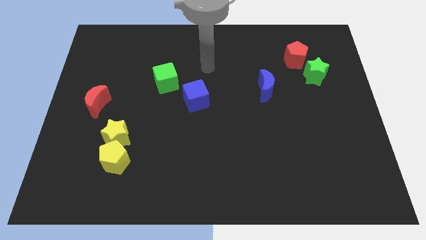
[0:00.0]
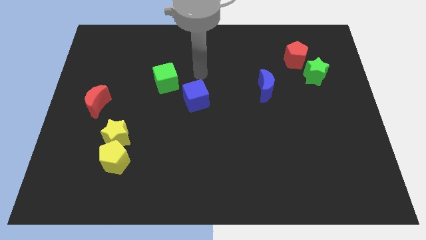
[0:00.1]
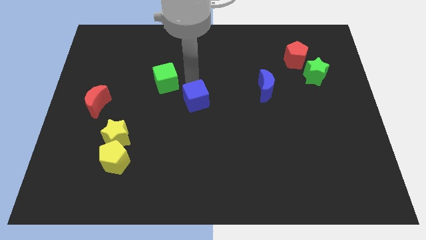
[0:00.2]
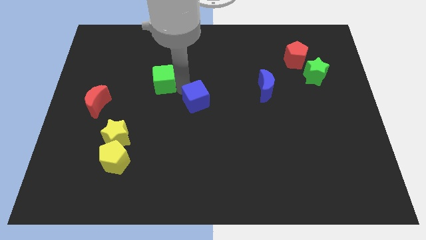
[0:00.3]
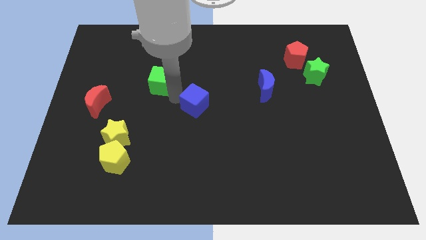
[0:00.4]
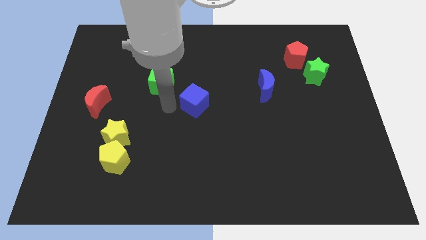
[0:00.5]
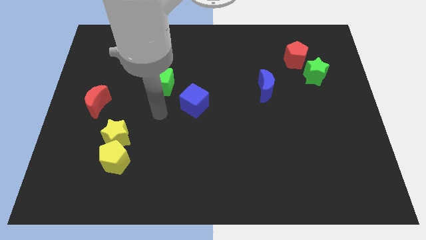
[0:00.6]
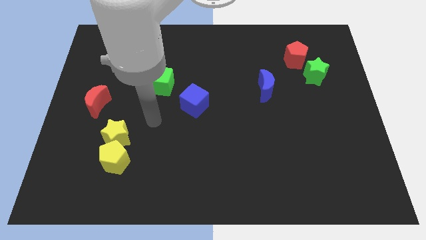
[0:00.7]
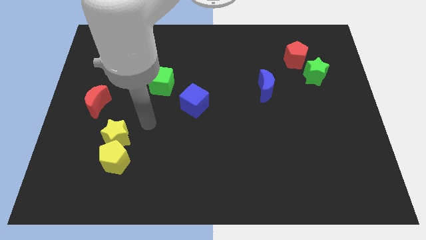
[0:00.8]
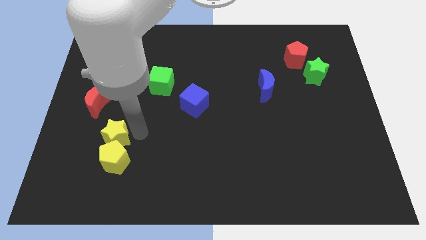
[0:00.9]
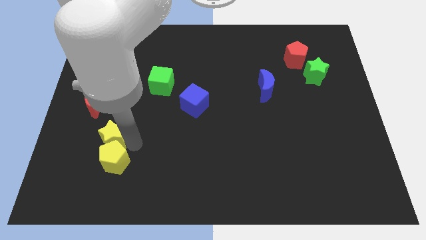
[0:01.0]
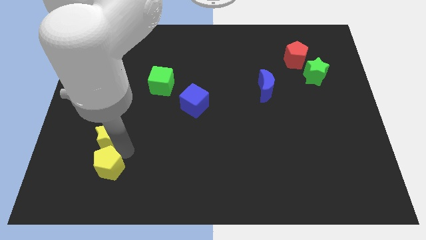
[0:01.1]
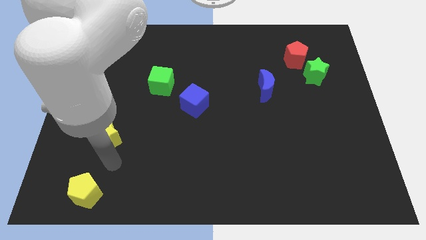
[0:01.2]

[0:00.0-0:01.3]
separate the yellow star from the yellow pentagon

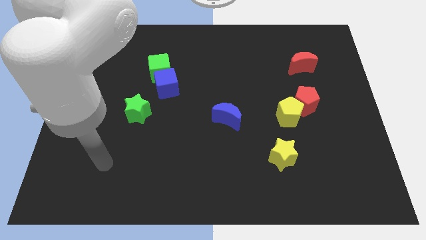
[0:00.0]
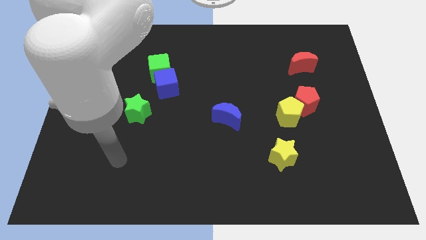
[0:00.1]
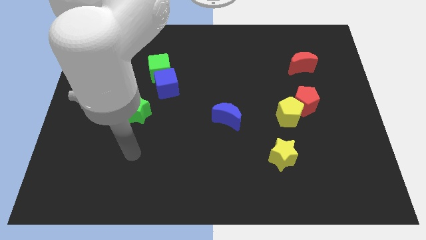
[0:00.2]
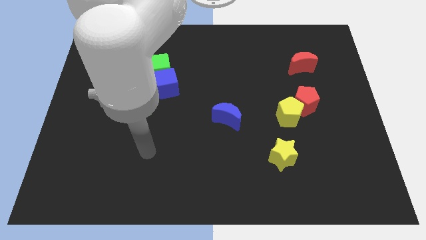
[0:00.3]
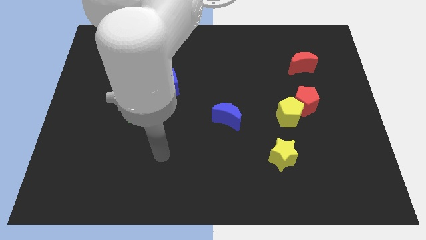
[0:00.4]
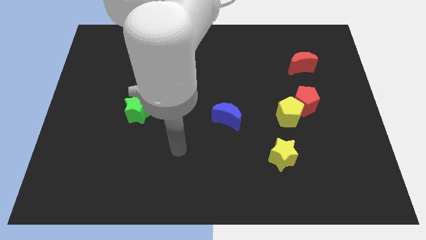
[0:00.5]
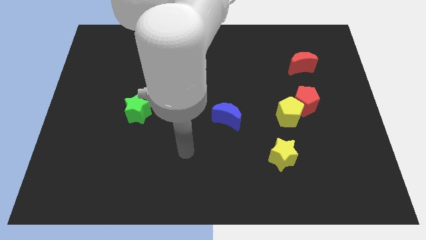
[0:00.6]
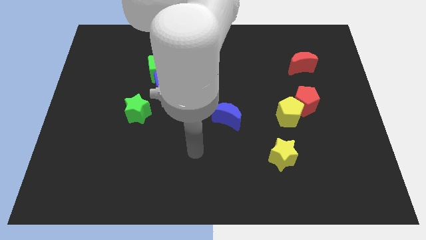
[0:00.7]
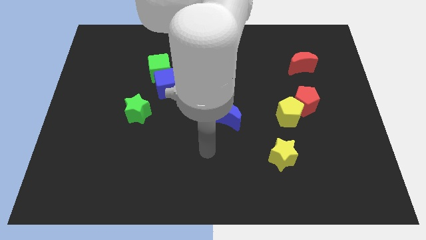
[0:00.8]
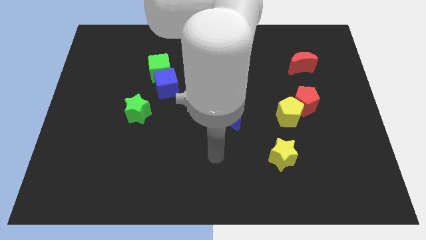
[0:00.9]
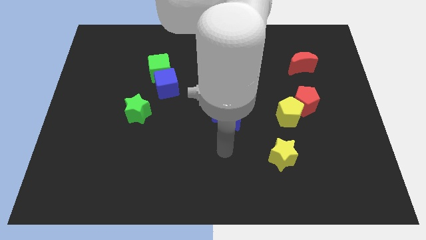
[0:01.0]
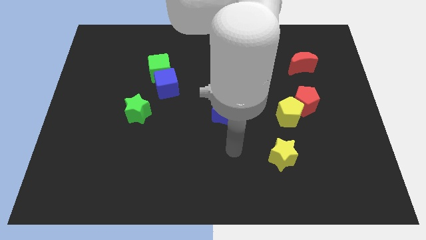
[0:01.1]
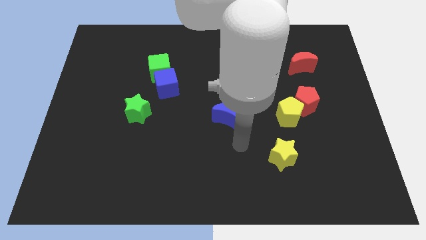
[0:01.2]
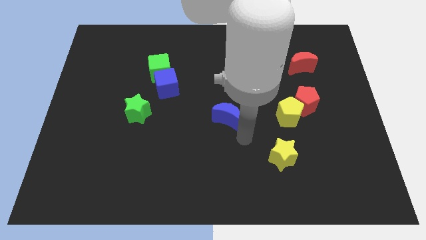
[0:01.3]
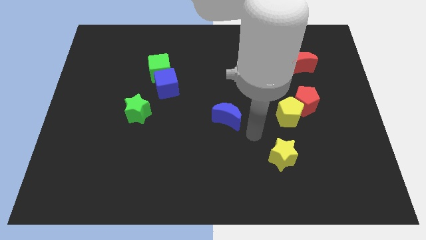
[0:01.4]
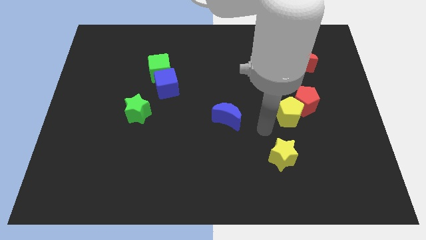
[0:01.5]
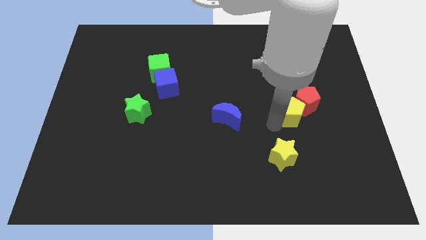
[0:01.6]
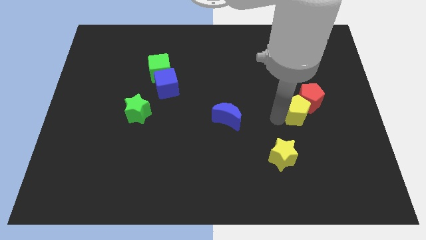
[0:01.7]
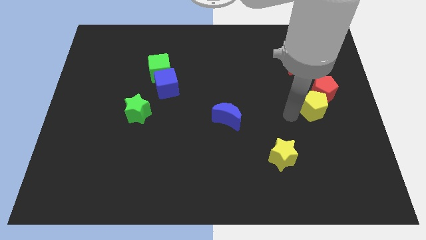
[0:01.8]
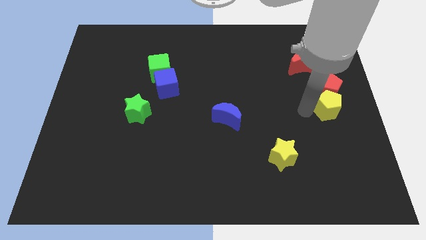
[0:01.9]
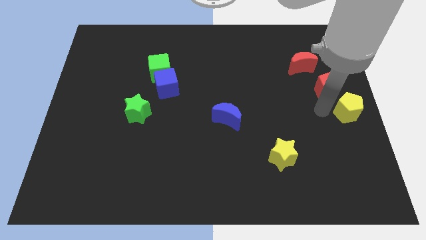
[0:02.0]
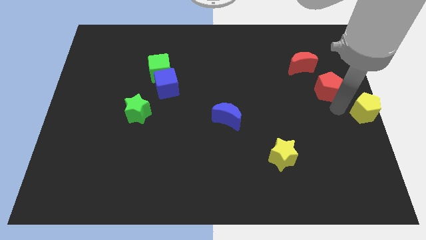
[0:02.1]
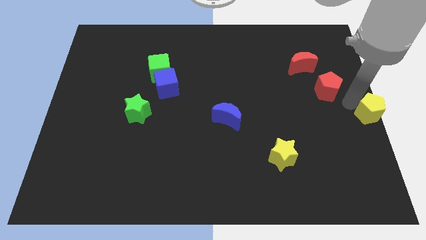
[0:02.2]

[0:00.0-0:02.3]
separate the red pentagon from the yellow pentagon

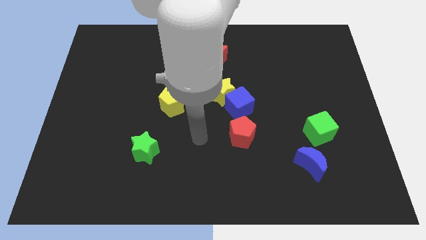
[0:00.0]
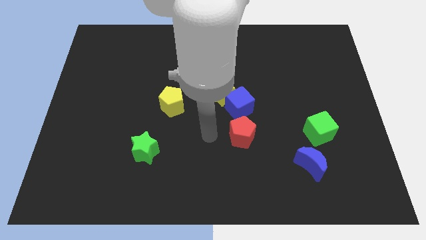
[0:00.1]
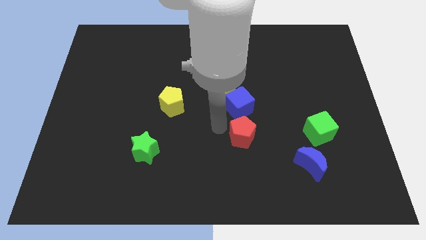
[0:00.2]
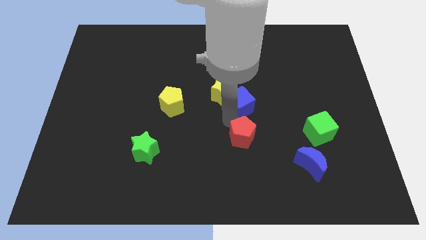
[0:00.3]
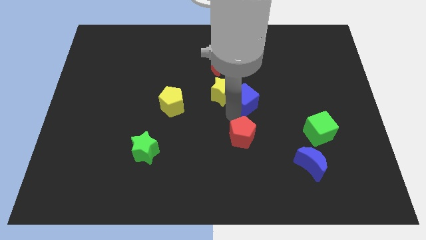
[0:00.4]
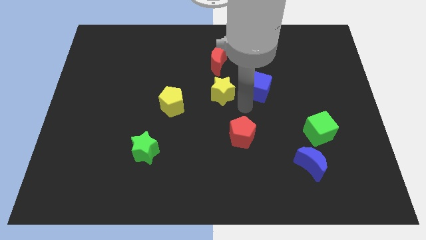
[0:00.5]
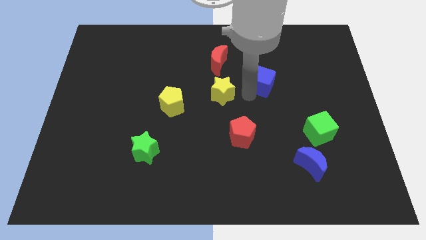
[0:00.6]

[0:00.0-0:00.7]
pull the yellow star apart from the blue cube

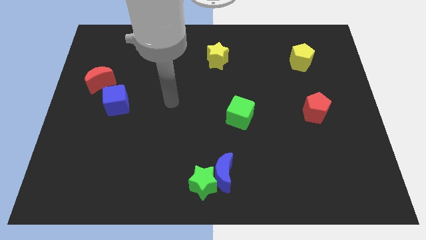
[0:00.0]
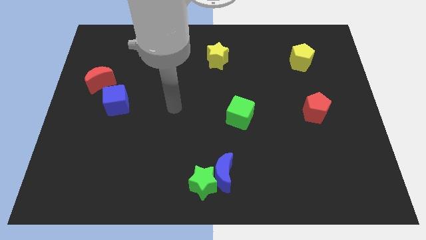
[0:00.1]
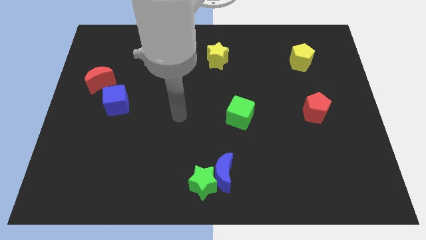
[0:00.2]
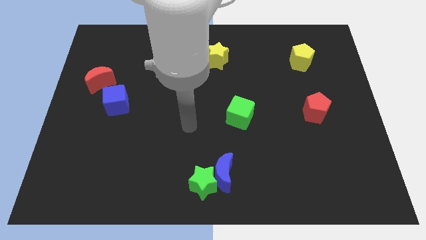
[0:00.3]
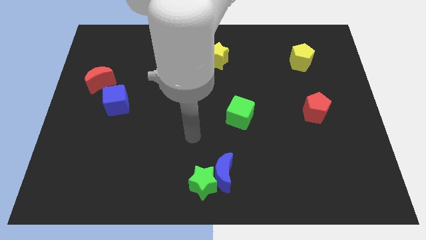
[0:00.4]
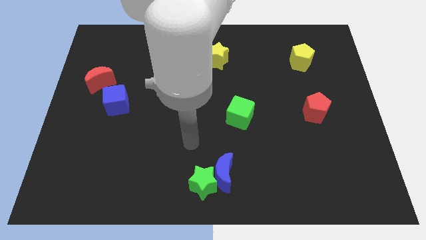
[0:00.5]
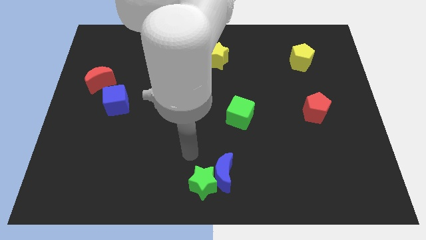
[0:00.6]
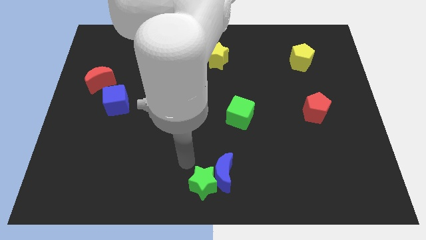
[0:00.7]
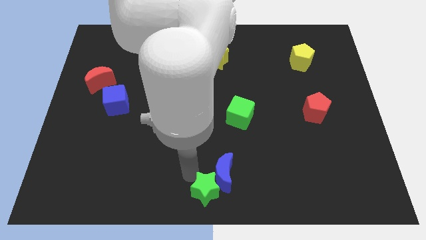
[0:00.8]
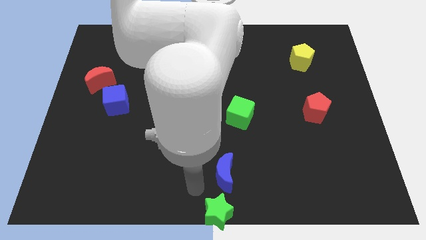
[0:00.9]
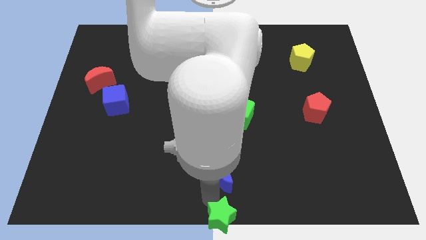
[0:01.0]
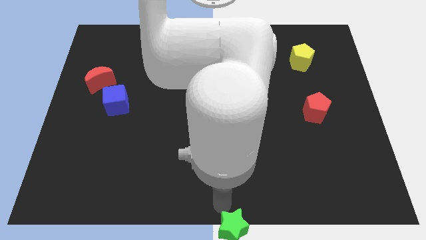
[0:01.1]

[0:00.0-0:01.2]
move the blue moon away from the green star

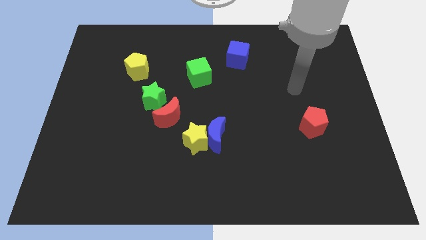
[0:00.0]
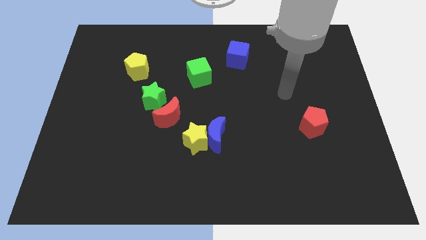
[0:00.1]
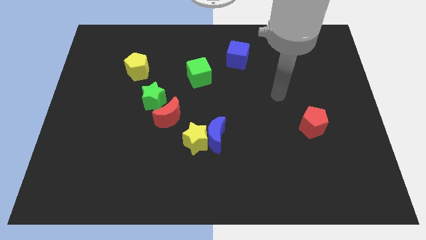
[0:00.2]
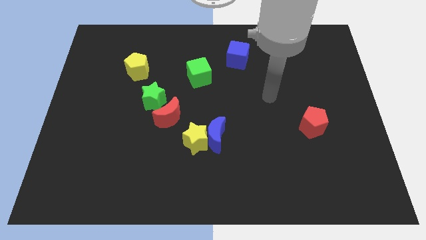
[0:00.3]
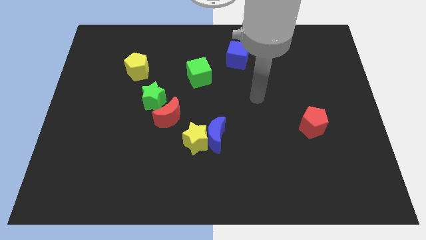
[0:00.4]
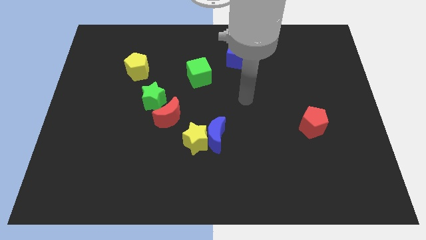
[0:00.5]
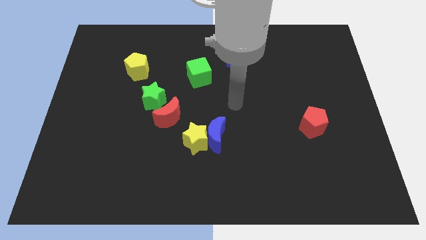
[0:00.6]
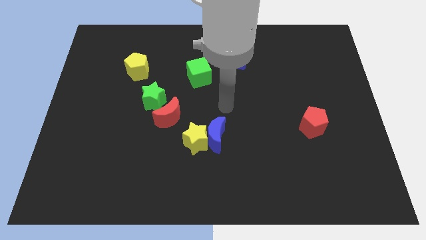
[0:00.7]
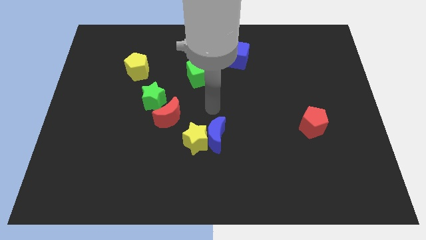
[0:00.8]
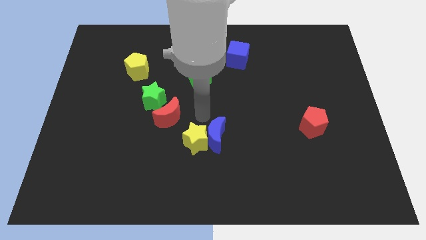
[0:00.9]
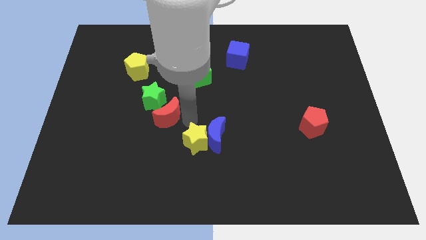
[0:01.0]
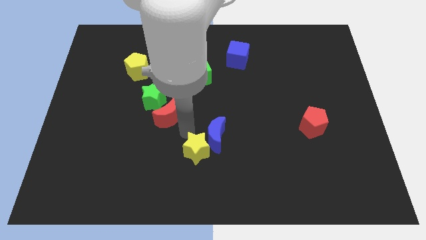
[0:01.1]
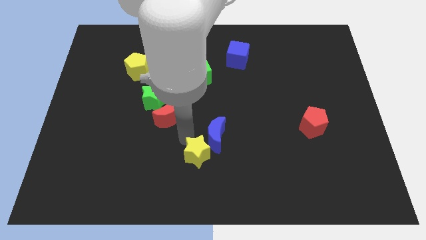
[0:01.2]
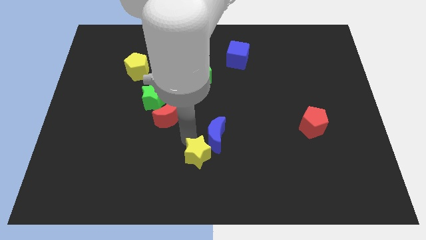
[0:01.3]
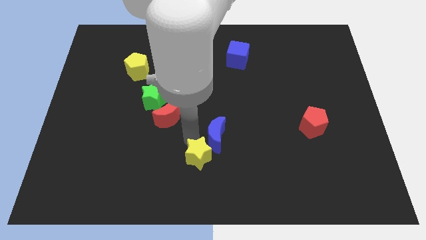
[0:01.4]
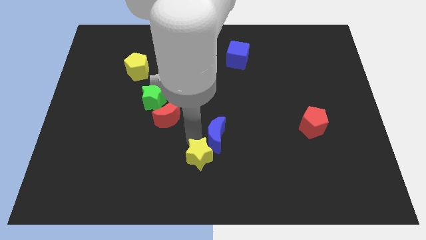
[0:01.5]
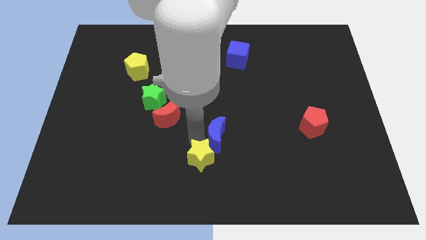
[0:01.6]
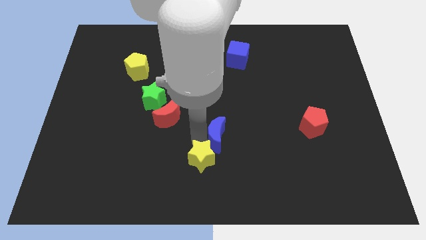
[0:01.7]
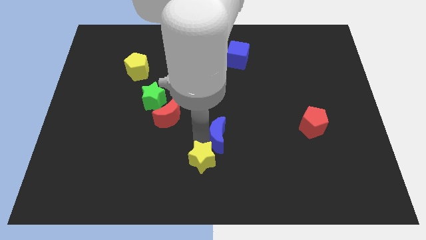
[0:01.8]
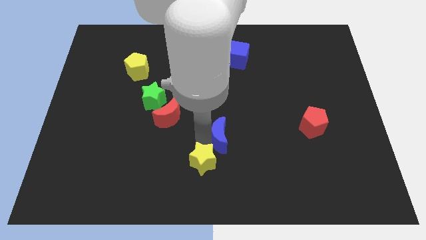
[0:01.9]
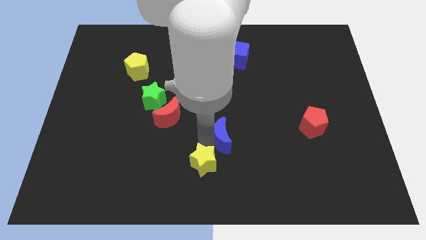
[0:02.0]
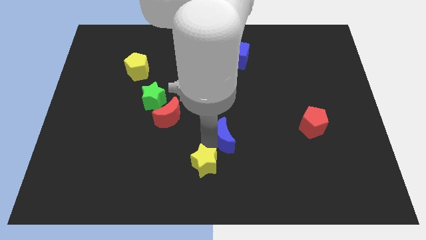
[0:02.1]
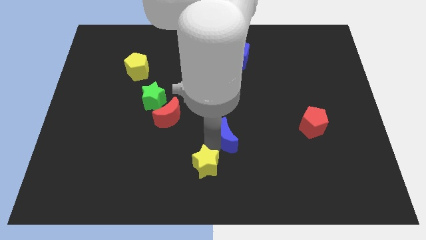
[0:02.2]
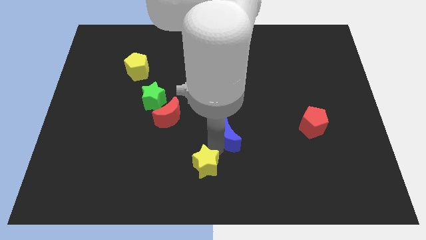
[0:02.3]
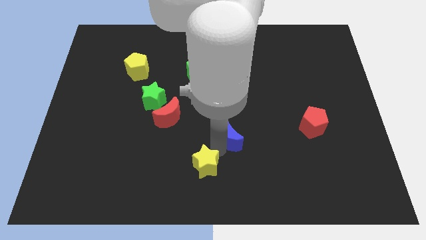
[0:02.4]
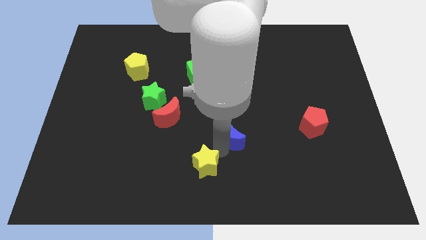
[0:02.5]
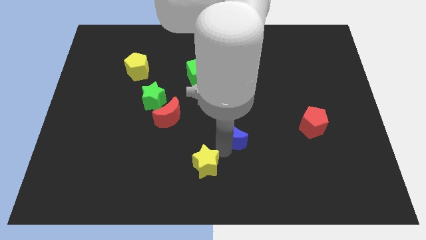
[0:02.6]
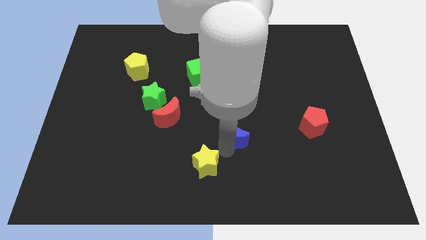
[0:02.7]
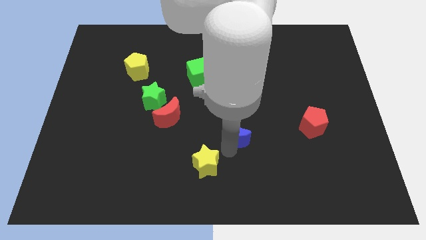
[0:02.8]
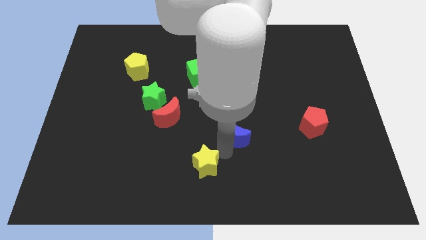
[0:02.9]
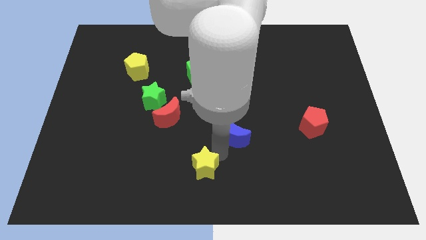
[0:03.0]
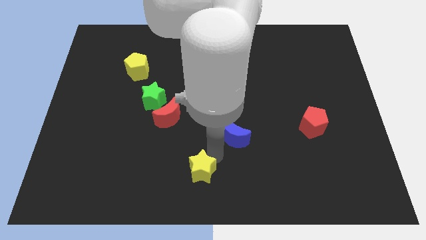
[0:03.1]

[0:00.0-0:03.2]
pull the blue moon apart from the yellow star

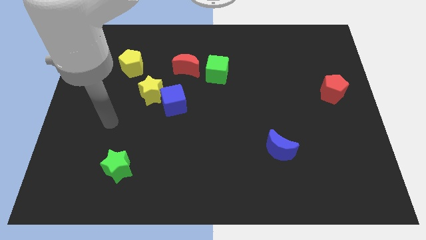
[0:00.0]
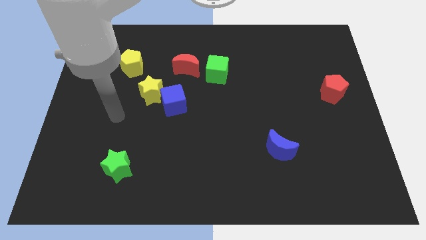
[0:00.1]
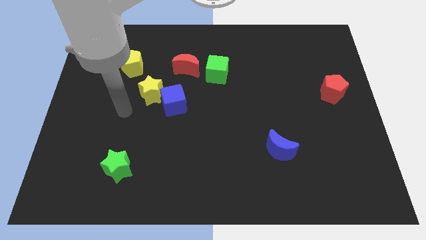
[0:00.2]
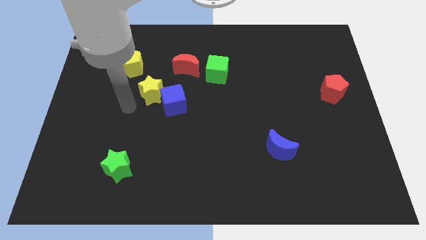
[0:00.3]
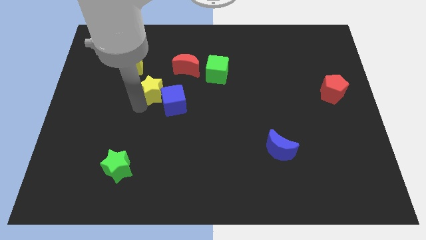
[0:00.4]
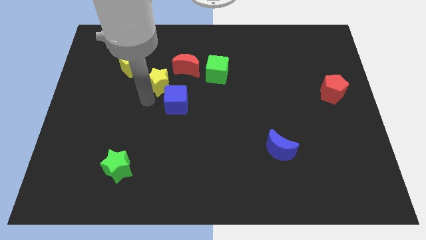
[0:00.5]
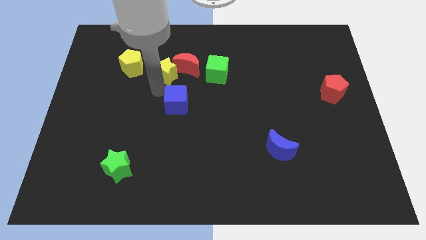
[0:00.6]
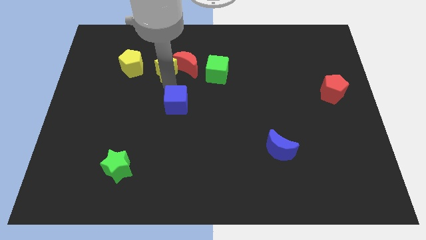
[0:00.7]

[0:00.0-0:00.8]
pull the blue cube apart from the yellow star
